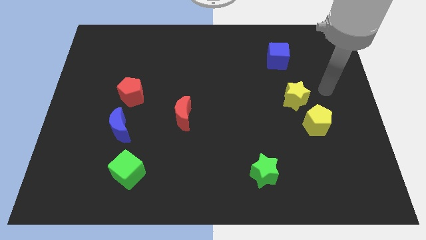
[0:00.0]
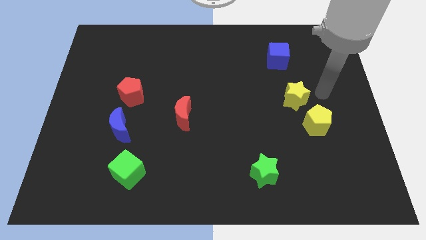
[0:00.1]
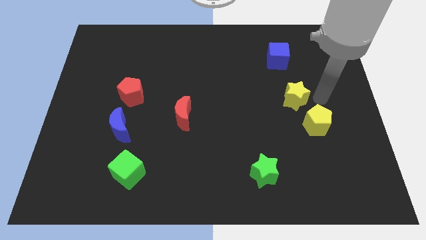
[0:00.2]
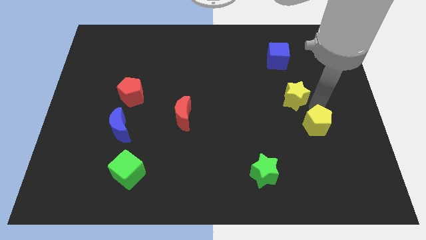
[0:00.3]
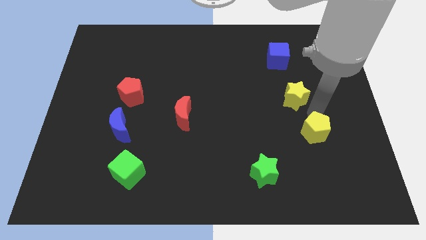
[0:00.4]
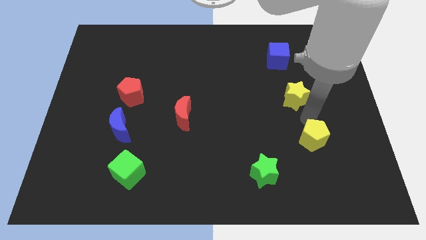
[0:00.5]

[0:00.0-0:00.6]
move the yellow star away from the yellow pentagon

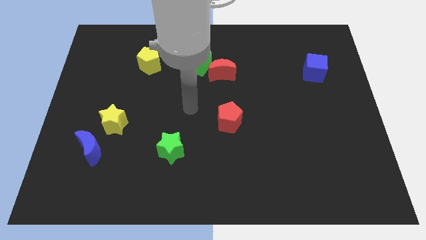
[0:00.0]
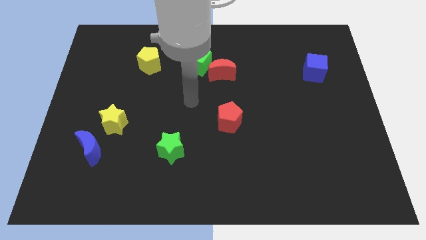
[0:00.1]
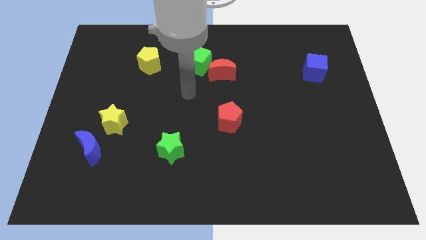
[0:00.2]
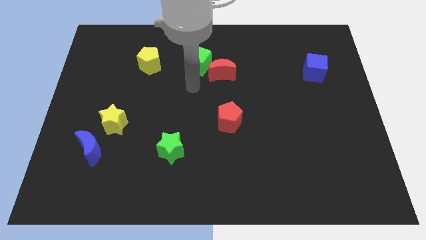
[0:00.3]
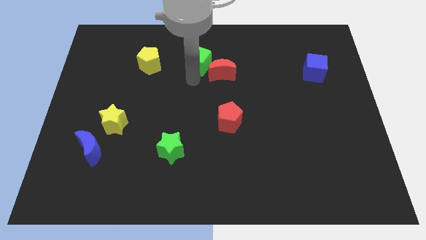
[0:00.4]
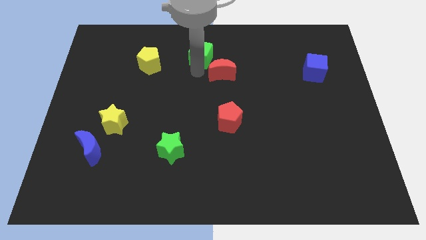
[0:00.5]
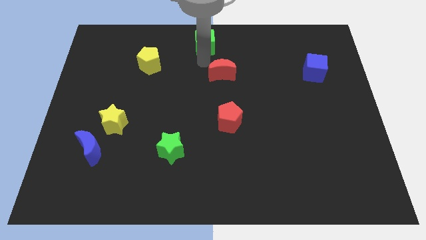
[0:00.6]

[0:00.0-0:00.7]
pull the red moon apart from the green cube

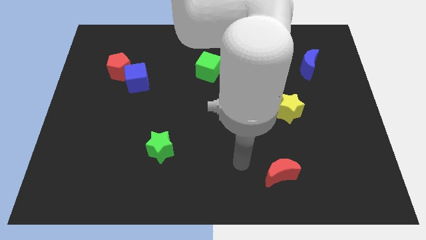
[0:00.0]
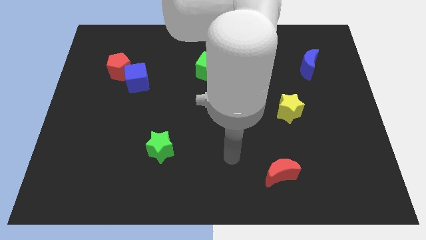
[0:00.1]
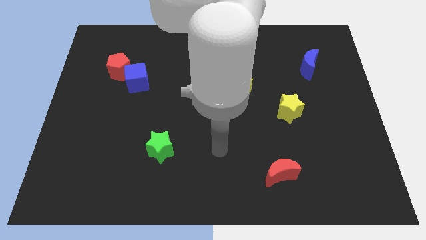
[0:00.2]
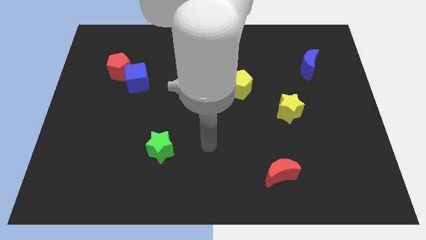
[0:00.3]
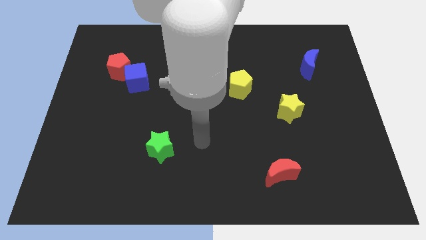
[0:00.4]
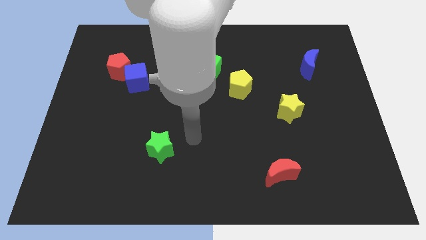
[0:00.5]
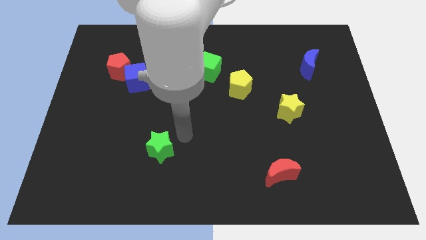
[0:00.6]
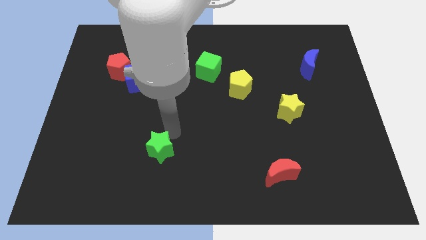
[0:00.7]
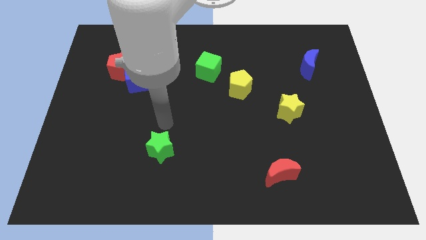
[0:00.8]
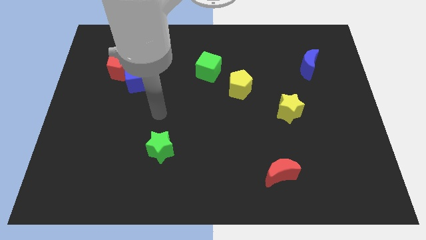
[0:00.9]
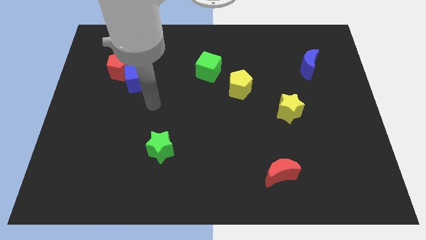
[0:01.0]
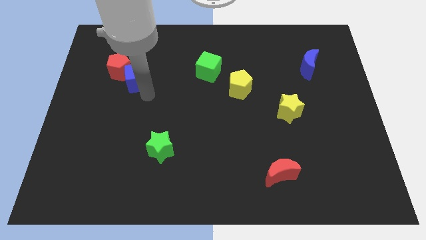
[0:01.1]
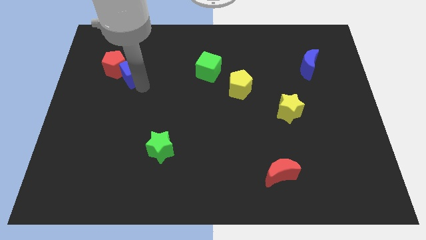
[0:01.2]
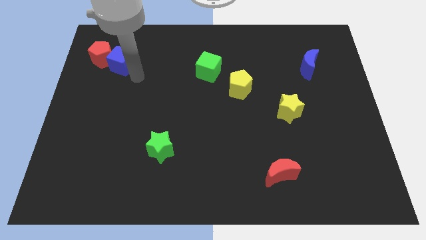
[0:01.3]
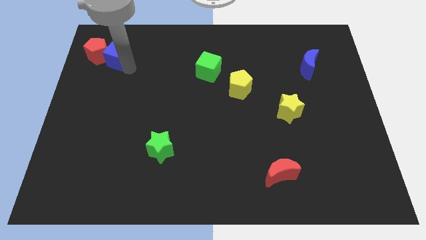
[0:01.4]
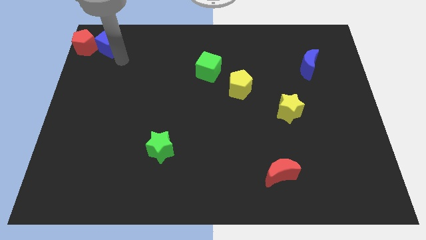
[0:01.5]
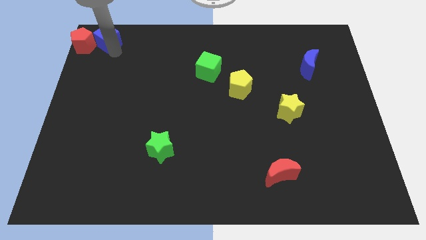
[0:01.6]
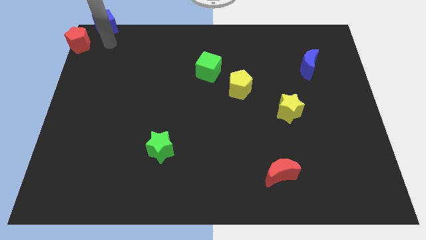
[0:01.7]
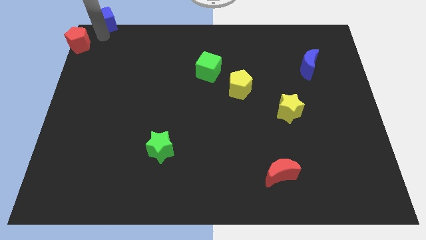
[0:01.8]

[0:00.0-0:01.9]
move the red pentagon away from the blue cube

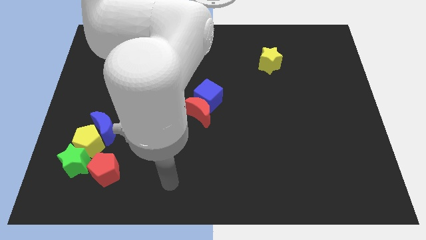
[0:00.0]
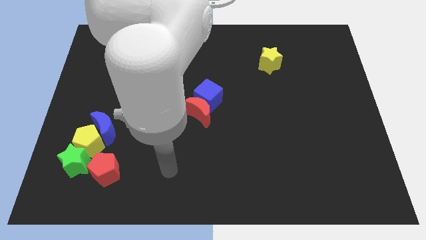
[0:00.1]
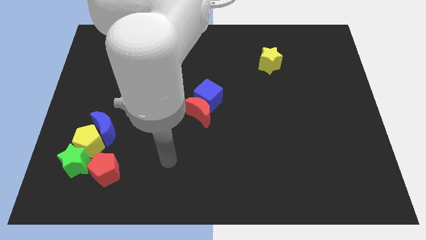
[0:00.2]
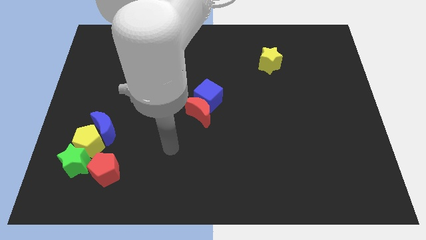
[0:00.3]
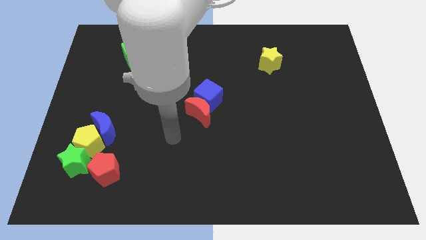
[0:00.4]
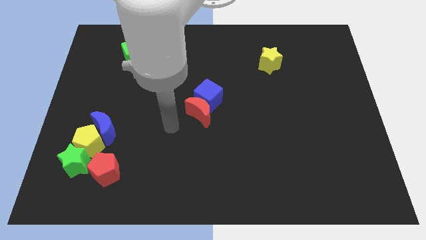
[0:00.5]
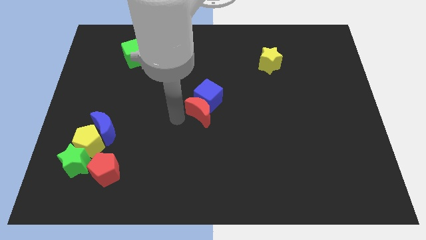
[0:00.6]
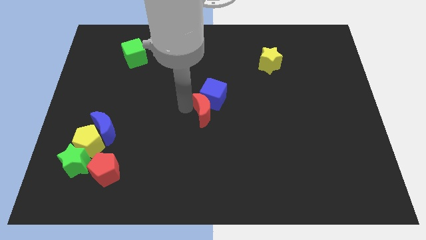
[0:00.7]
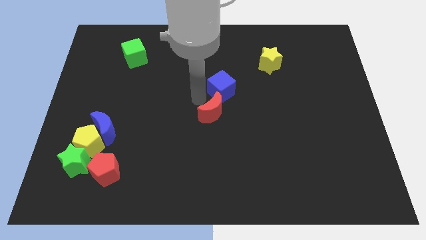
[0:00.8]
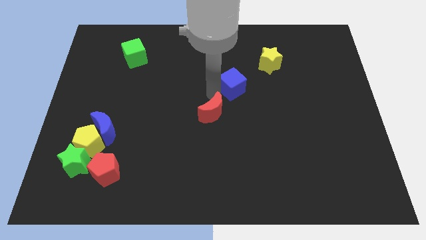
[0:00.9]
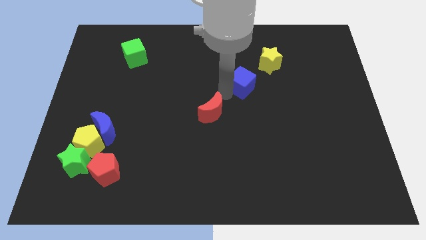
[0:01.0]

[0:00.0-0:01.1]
move the red moon away from the blue cube

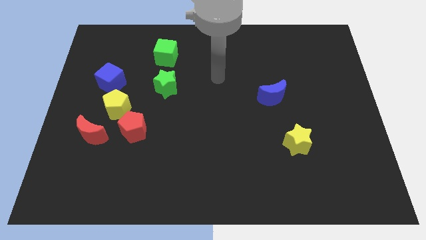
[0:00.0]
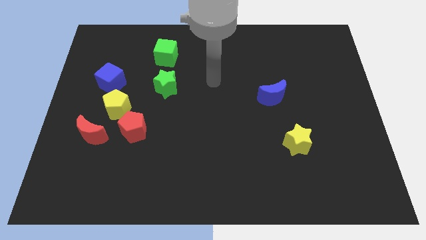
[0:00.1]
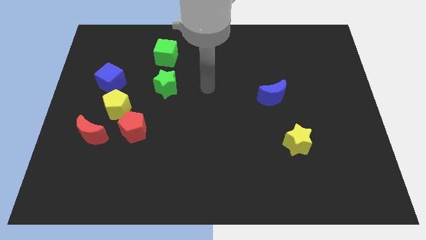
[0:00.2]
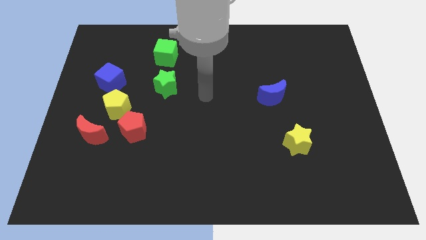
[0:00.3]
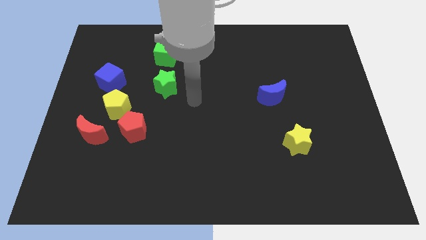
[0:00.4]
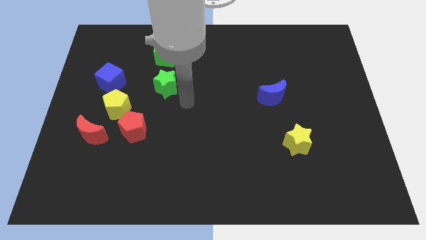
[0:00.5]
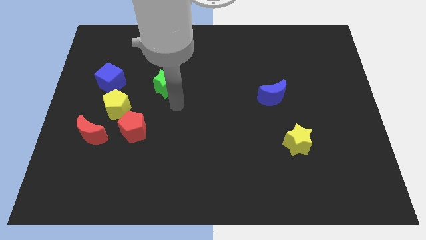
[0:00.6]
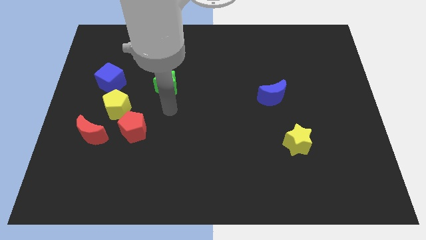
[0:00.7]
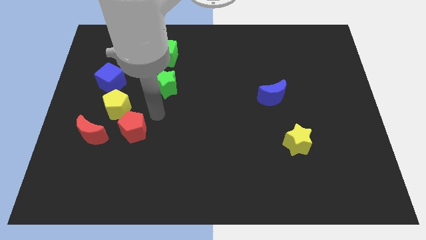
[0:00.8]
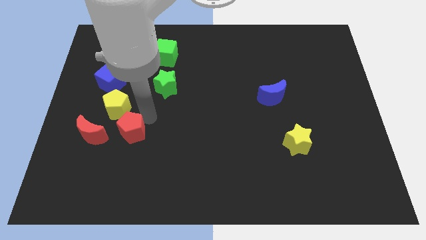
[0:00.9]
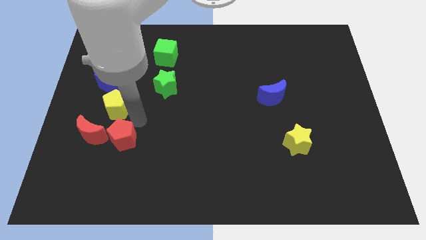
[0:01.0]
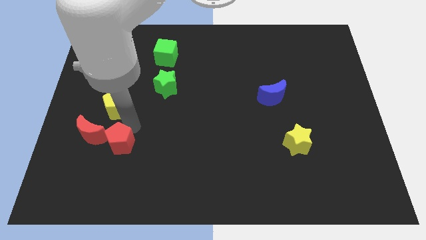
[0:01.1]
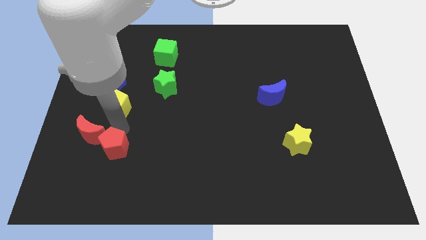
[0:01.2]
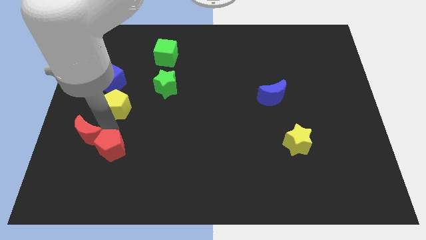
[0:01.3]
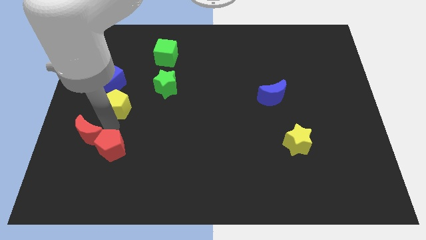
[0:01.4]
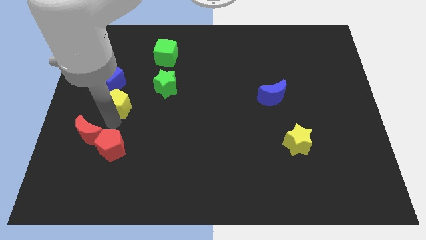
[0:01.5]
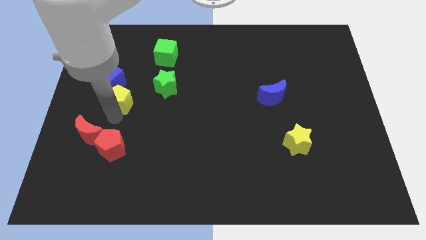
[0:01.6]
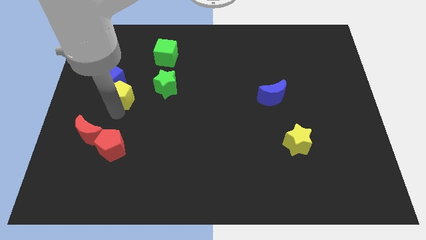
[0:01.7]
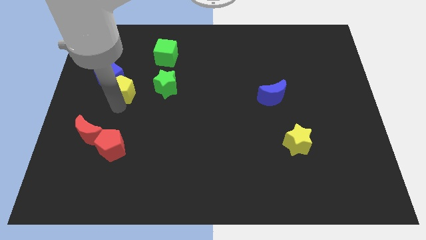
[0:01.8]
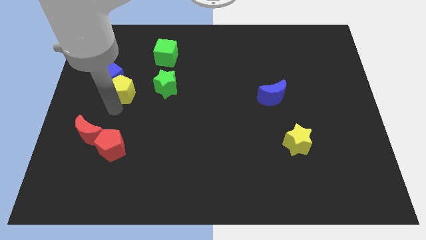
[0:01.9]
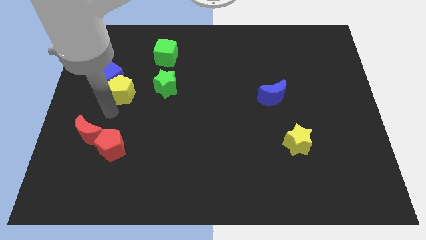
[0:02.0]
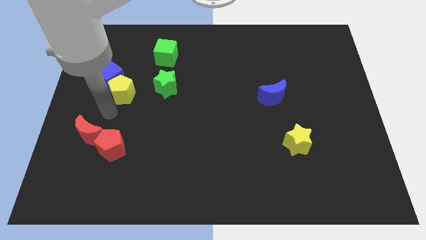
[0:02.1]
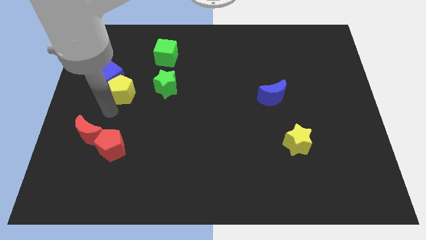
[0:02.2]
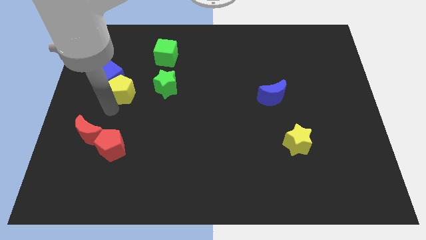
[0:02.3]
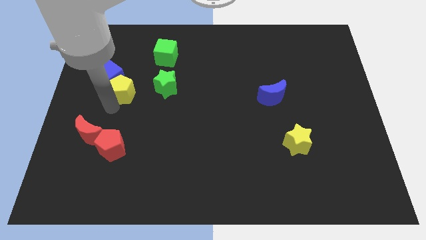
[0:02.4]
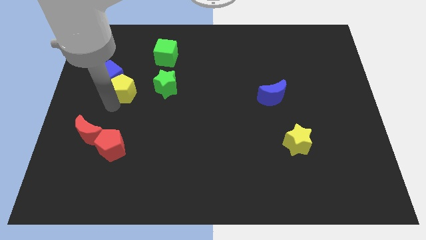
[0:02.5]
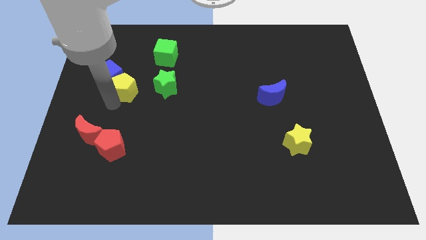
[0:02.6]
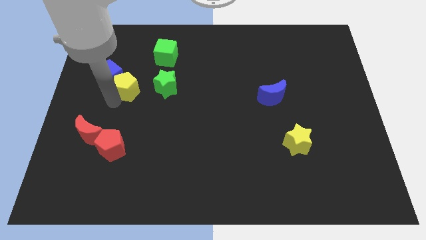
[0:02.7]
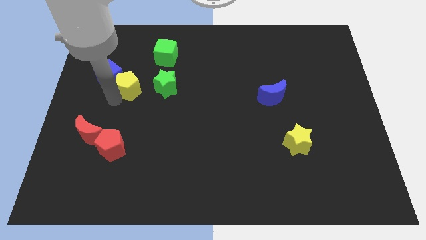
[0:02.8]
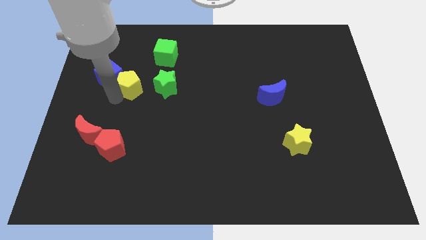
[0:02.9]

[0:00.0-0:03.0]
separate the yellow pentagon from the group

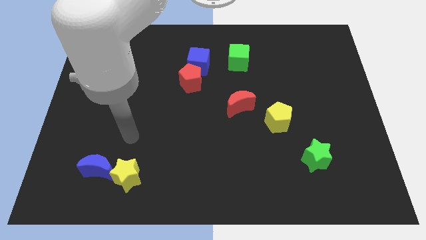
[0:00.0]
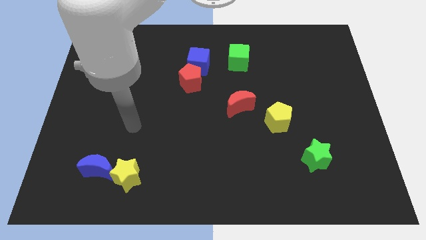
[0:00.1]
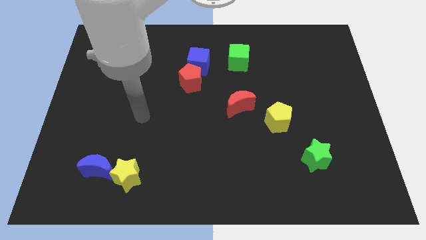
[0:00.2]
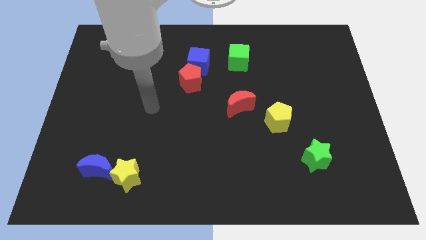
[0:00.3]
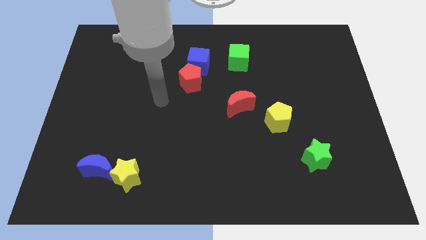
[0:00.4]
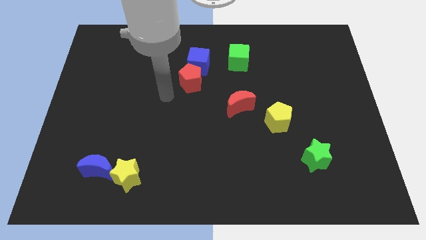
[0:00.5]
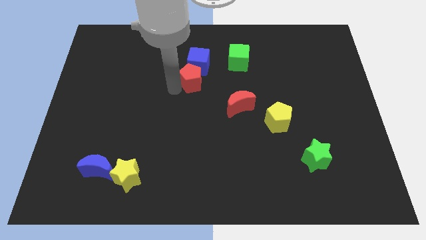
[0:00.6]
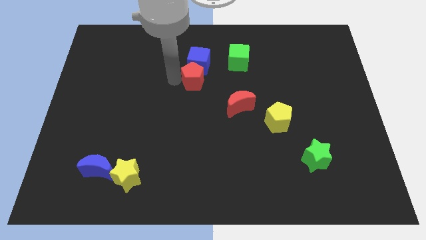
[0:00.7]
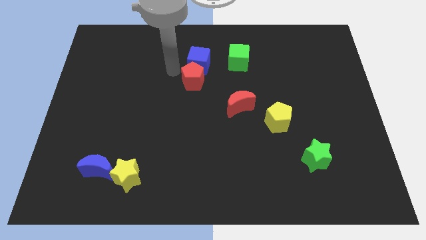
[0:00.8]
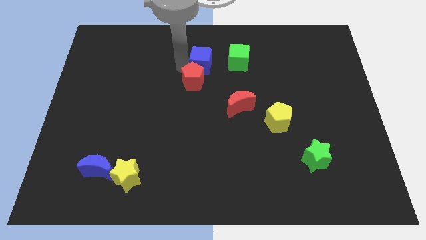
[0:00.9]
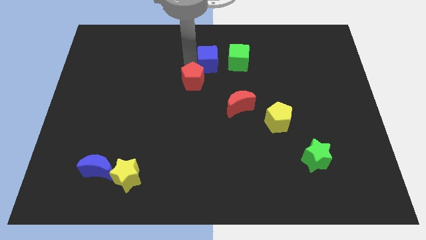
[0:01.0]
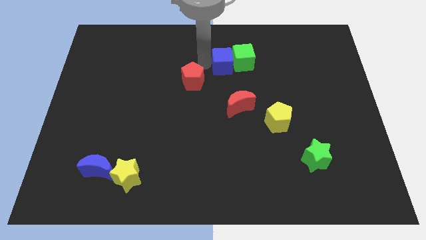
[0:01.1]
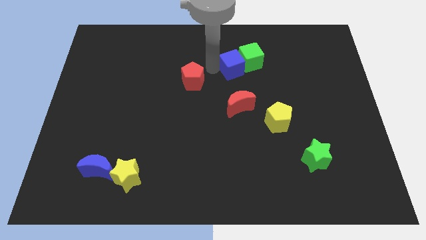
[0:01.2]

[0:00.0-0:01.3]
separate the red pentagon from the blue cube

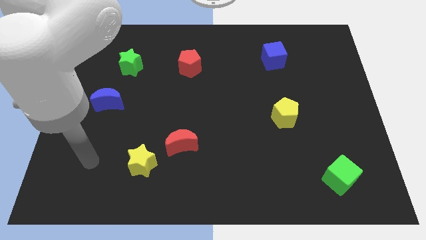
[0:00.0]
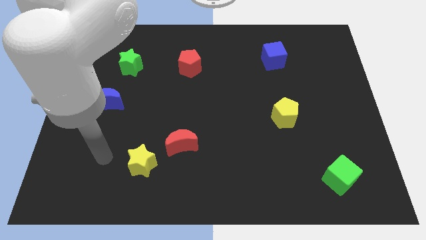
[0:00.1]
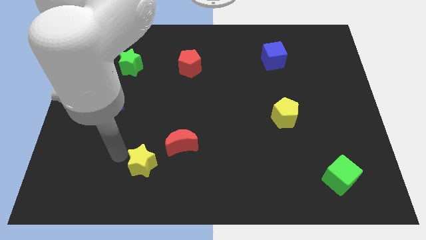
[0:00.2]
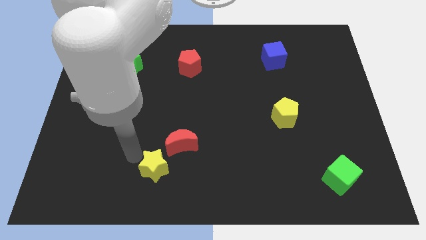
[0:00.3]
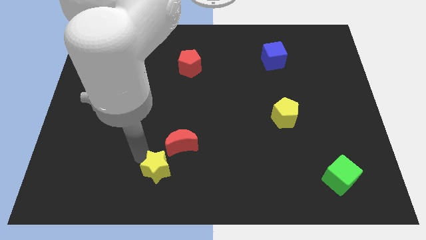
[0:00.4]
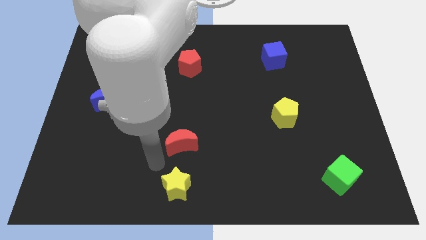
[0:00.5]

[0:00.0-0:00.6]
move the red moon away from the yellow star
